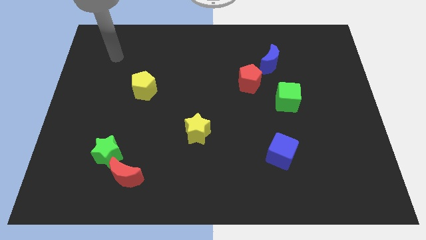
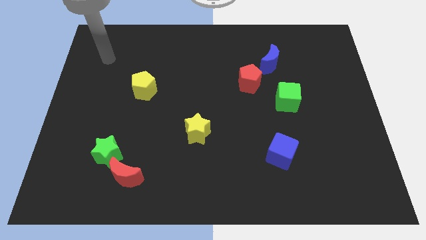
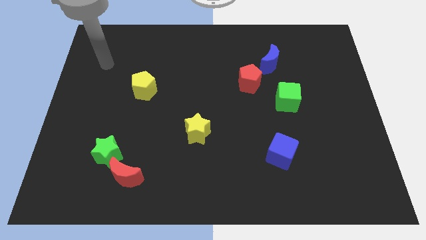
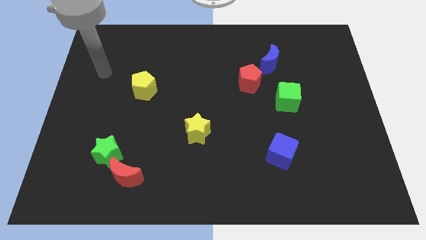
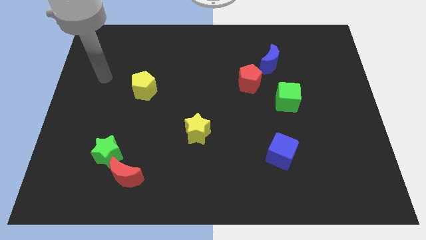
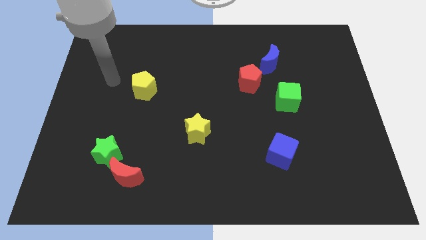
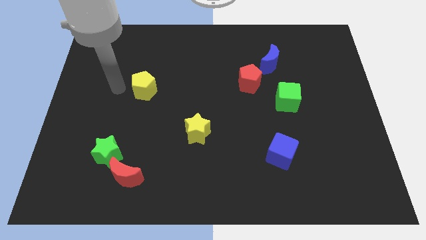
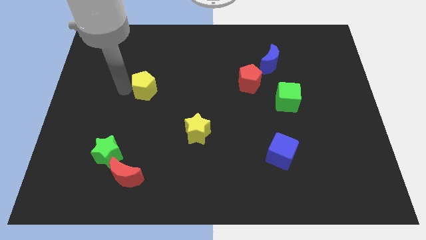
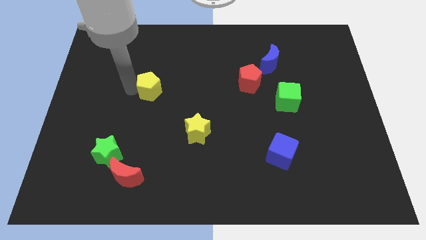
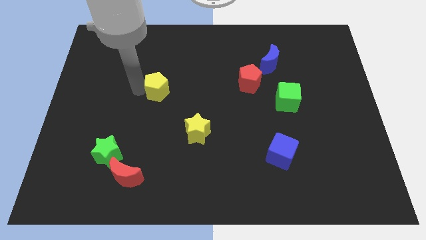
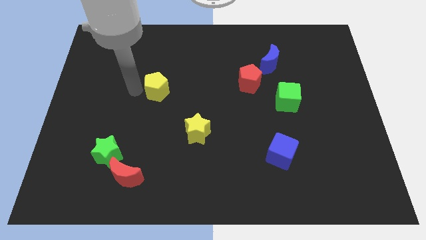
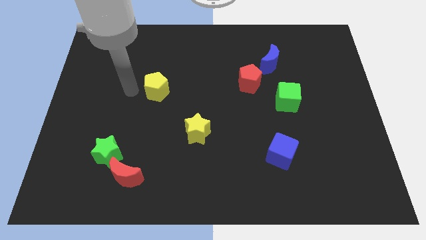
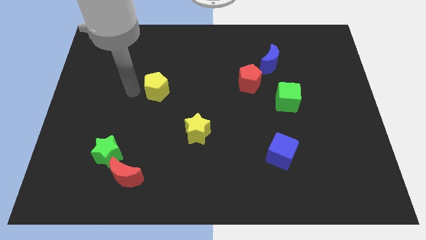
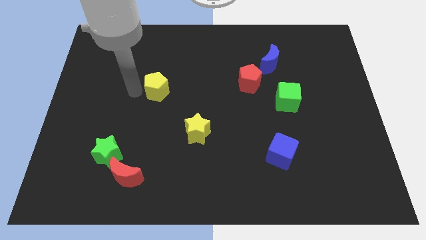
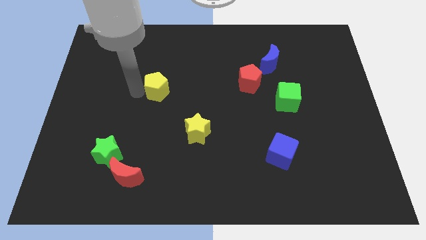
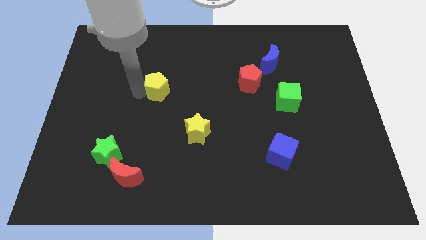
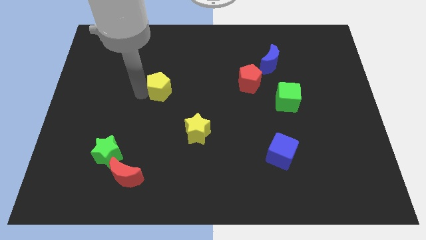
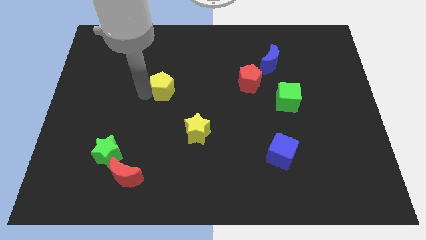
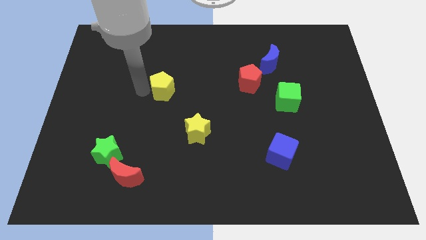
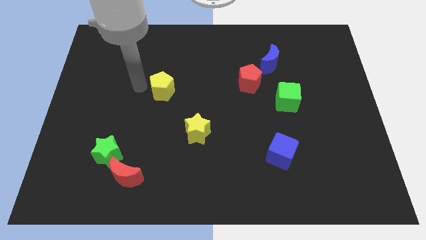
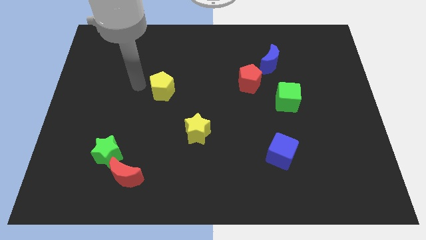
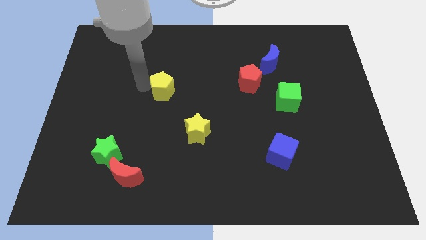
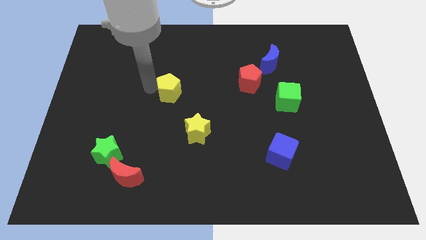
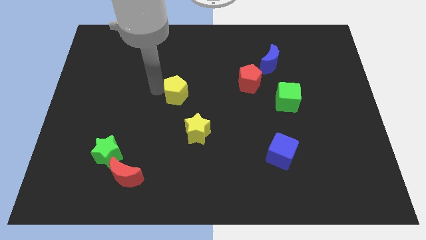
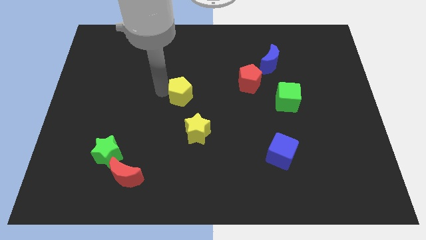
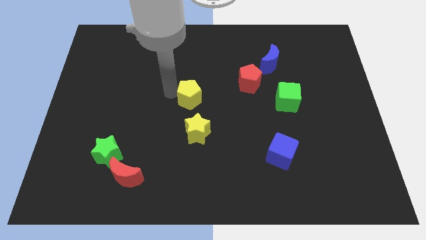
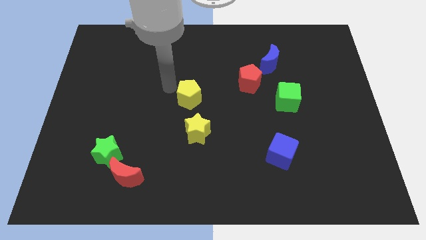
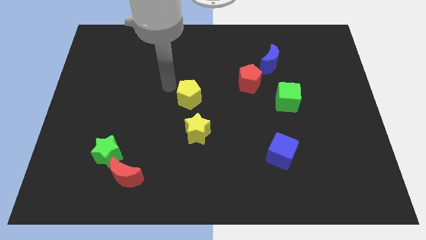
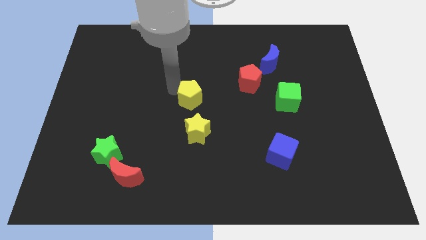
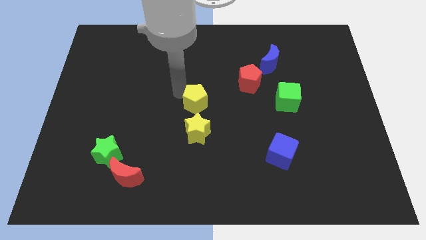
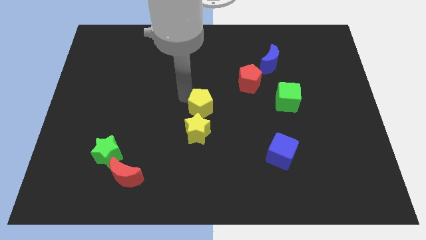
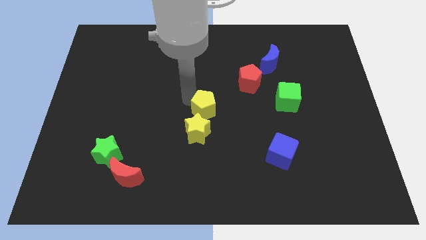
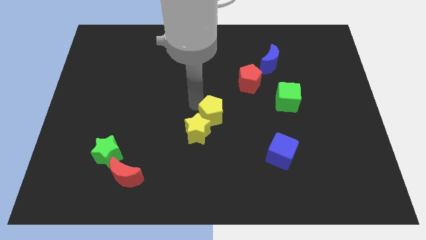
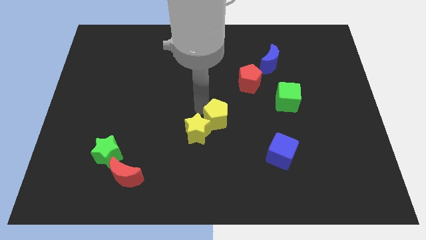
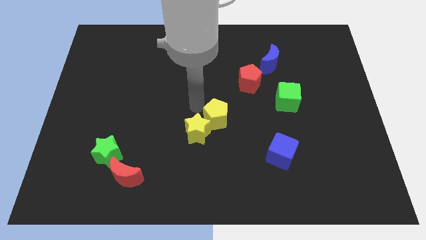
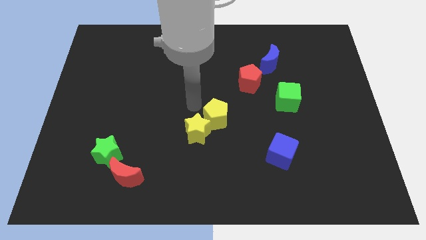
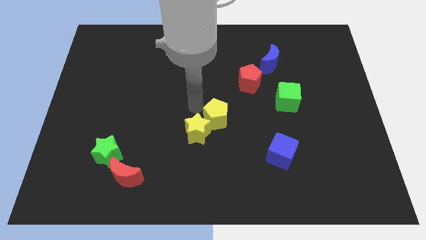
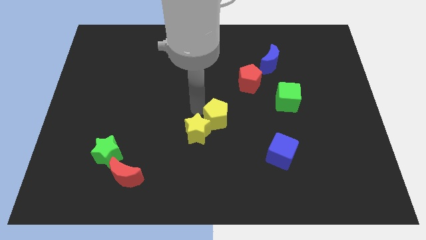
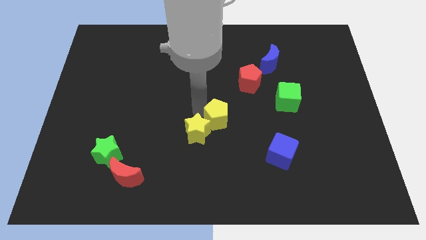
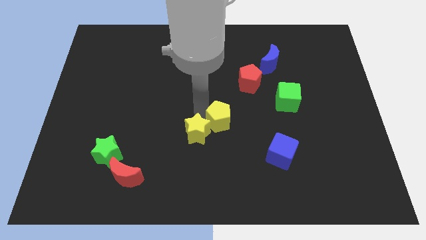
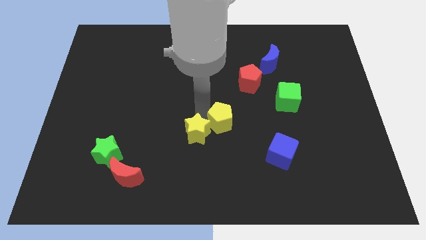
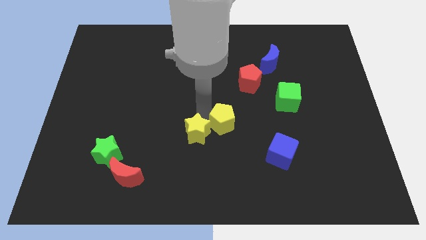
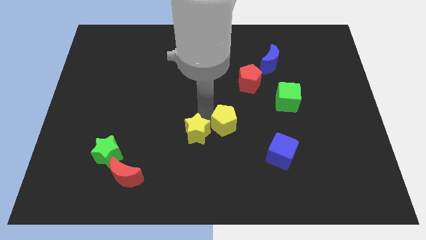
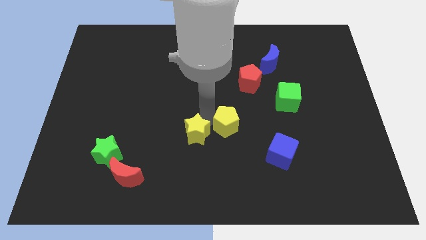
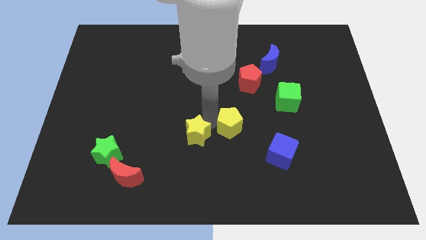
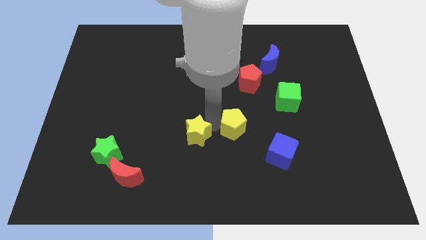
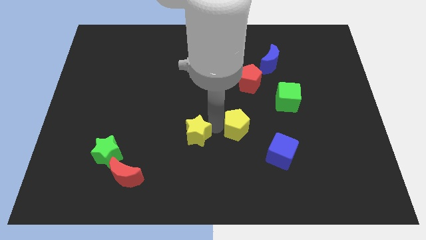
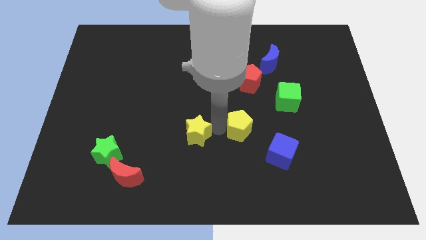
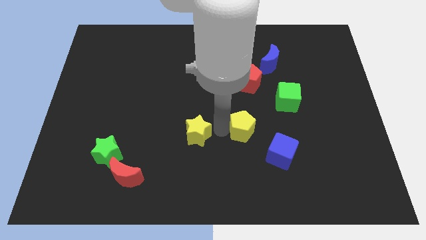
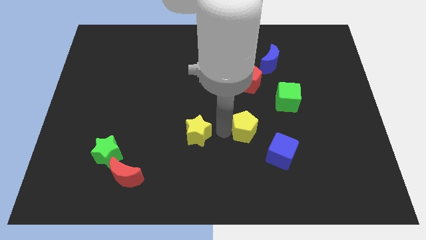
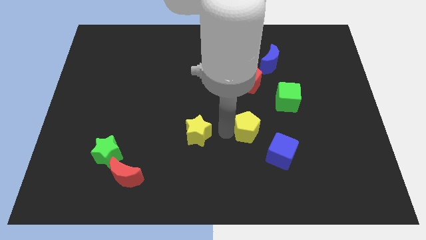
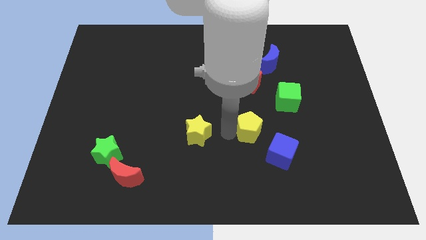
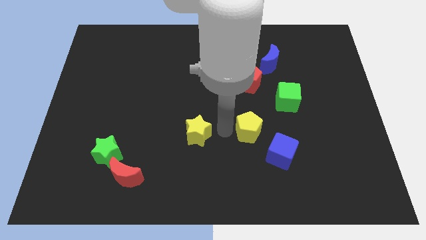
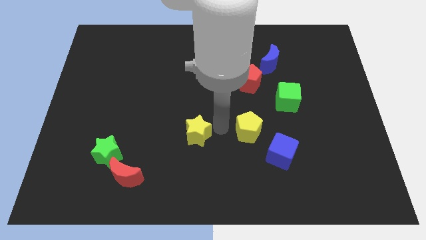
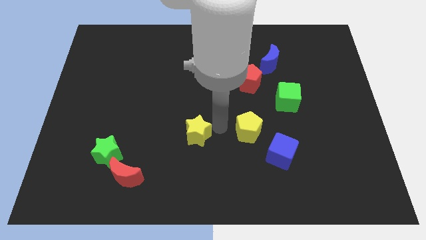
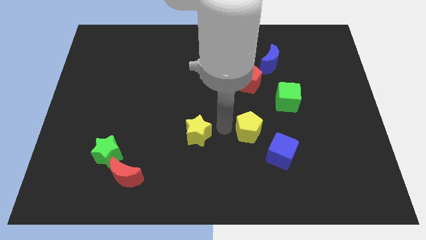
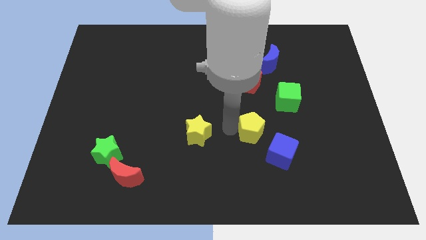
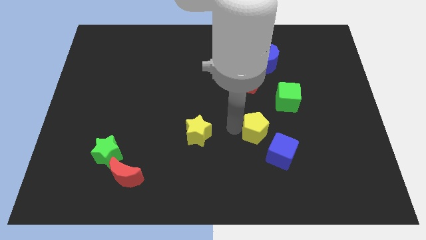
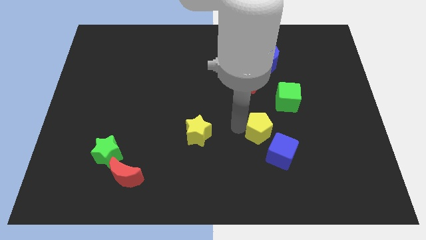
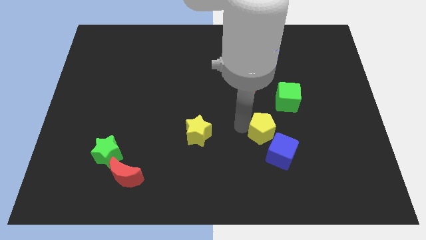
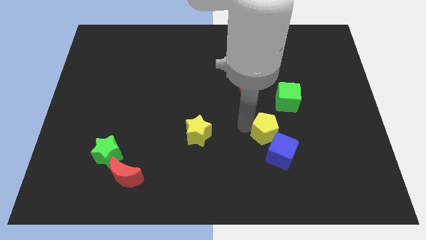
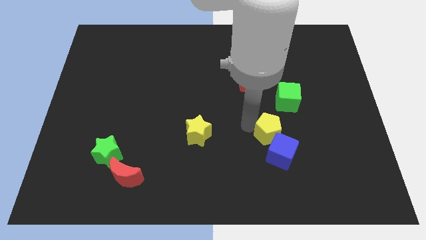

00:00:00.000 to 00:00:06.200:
move the yellow pentagon next to the blue cube
